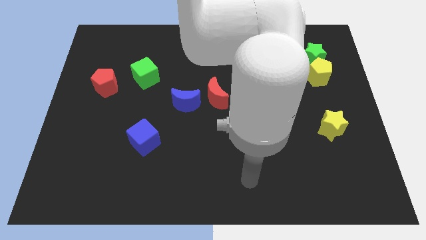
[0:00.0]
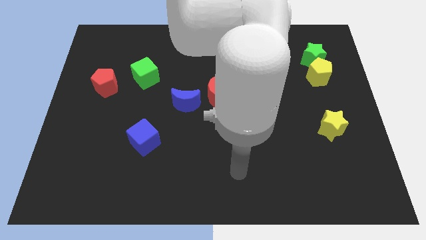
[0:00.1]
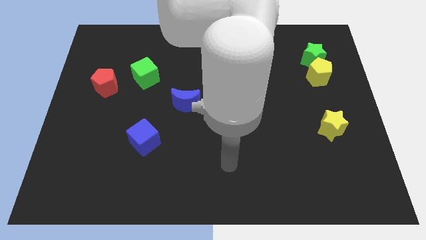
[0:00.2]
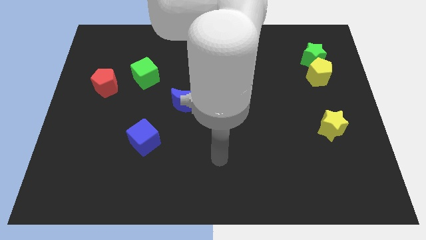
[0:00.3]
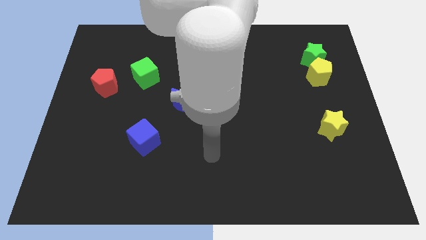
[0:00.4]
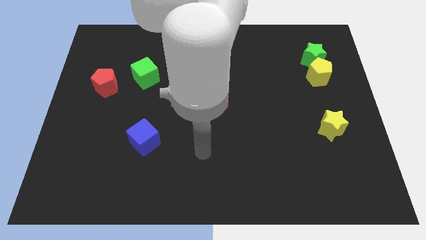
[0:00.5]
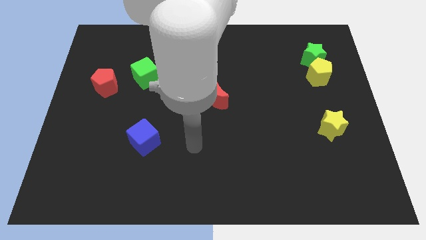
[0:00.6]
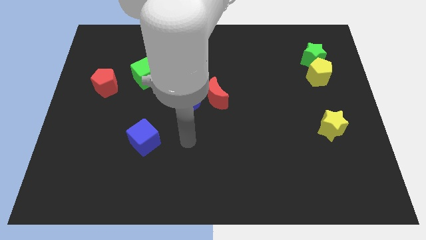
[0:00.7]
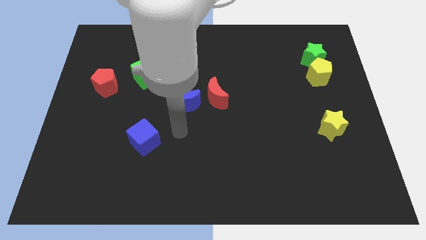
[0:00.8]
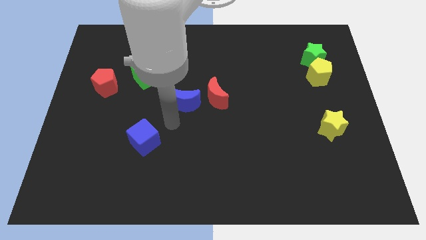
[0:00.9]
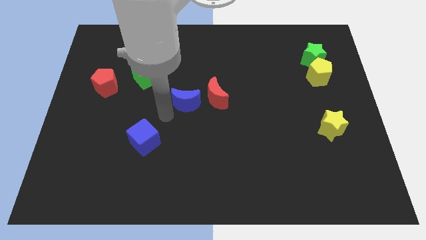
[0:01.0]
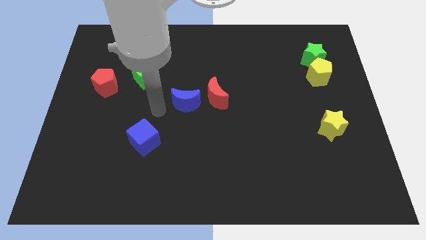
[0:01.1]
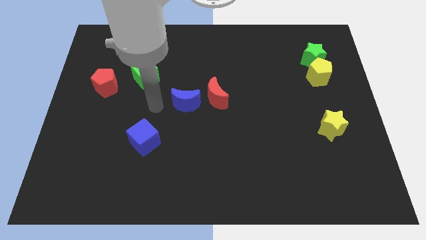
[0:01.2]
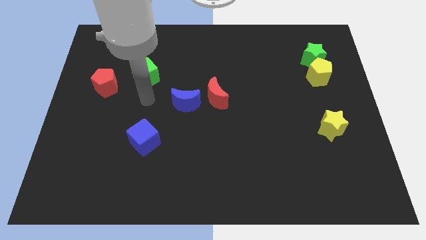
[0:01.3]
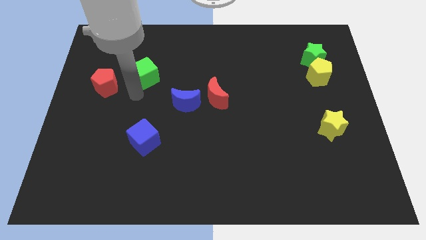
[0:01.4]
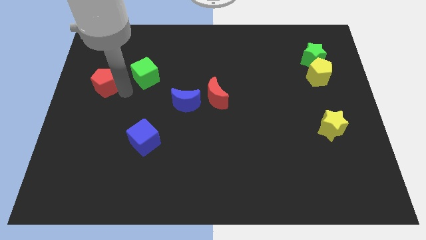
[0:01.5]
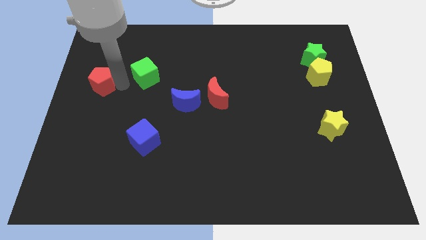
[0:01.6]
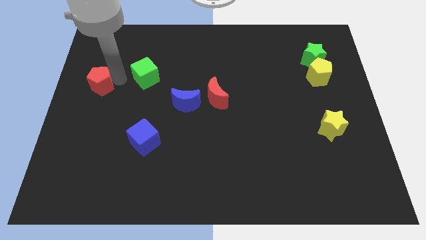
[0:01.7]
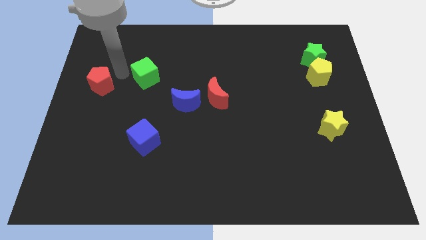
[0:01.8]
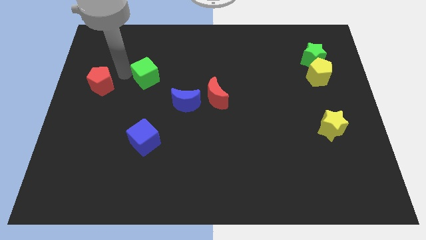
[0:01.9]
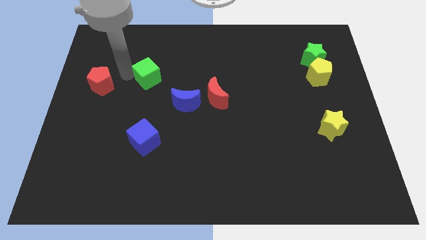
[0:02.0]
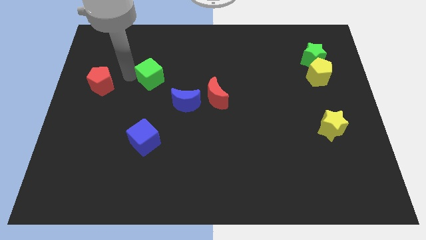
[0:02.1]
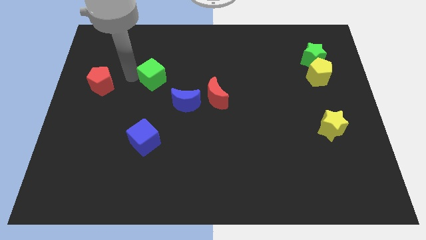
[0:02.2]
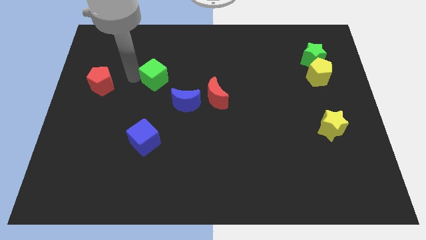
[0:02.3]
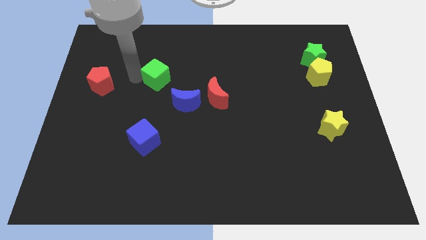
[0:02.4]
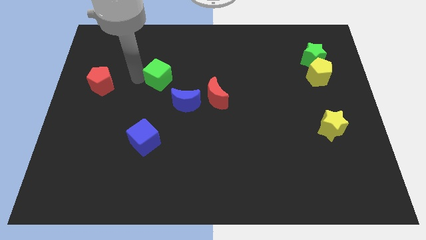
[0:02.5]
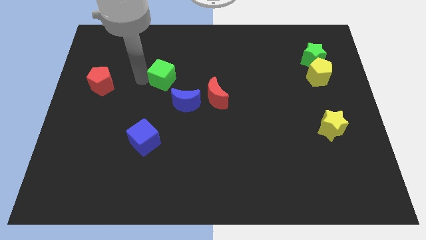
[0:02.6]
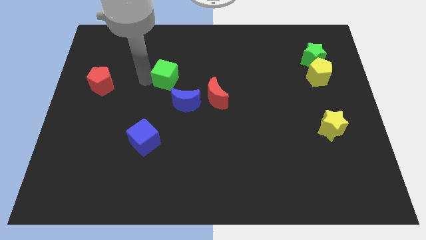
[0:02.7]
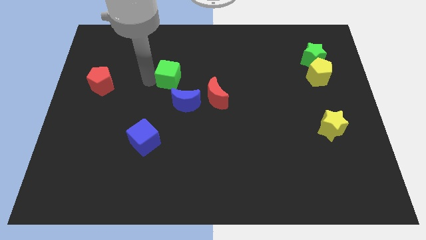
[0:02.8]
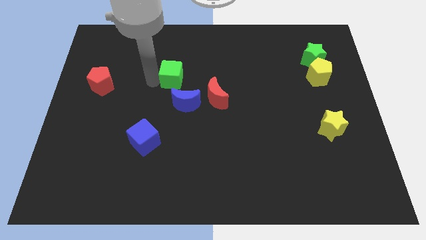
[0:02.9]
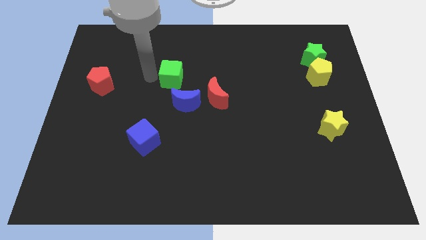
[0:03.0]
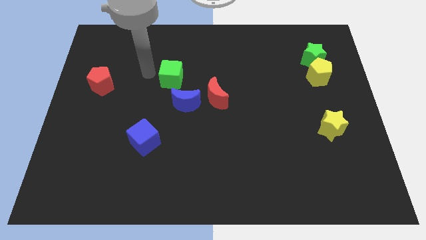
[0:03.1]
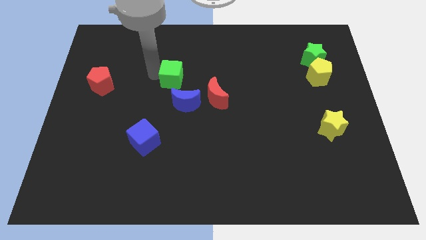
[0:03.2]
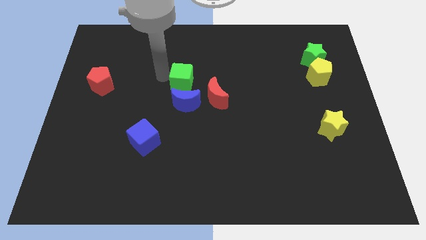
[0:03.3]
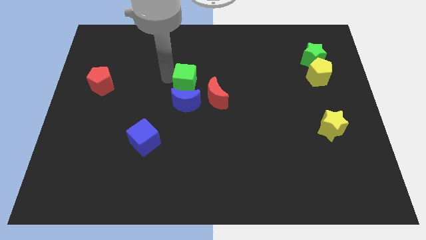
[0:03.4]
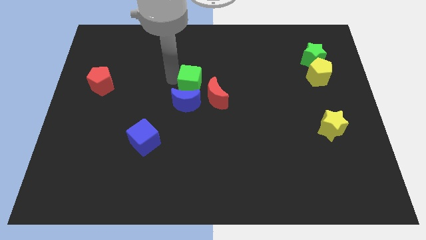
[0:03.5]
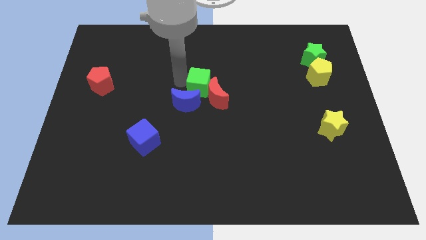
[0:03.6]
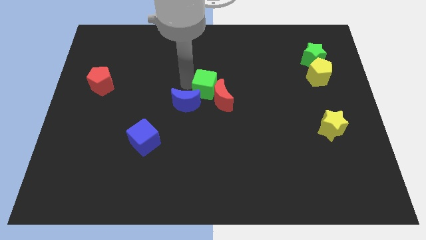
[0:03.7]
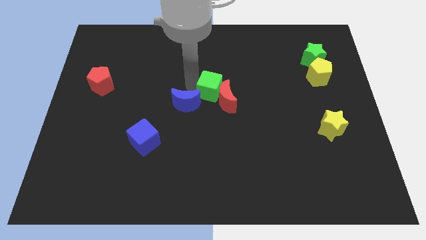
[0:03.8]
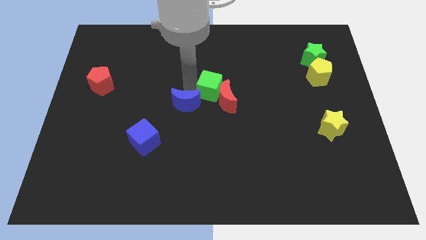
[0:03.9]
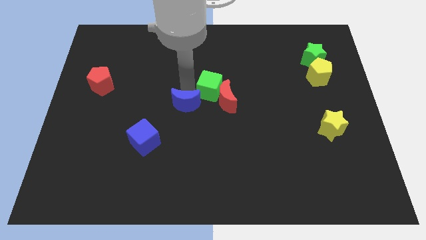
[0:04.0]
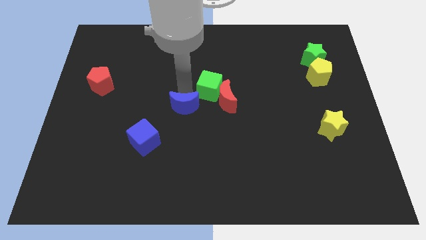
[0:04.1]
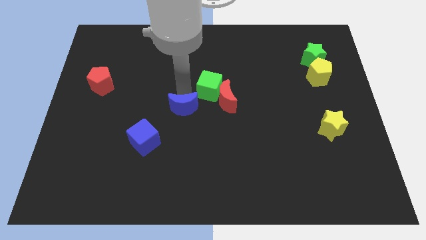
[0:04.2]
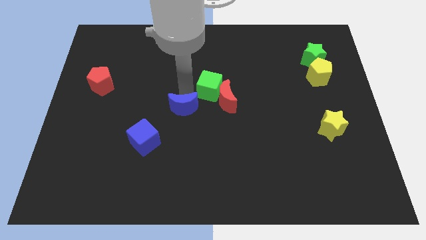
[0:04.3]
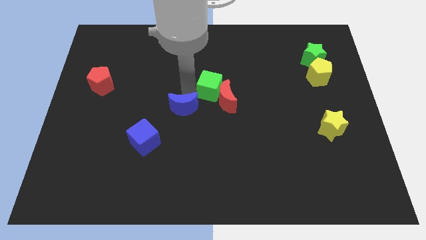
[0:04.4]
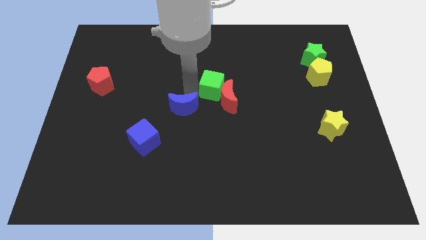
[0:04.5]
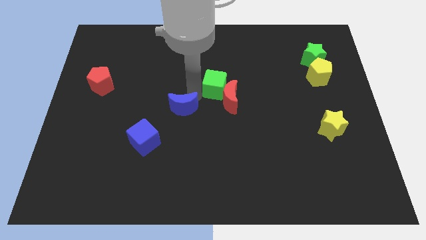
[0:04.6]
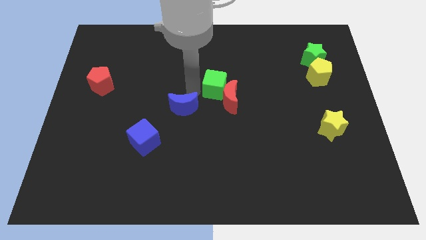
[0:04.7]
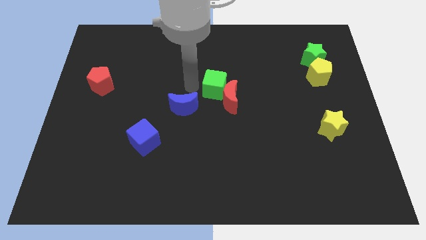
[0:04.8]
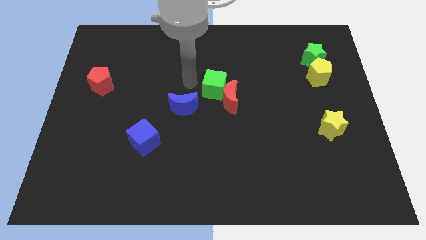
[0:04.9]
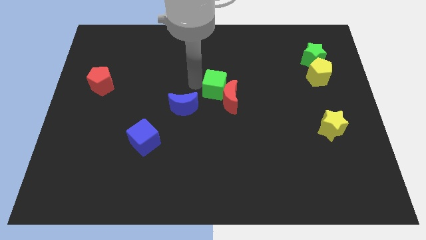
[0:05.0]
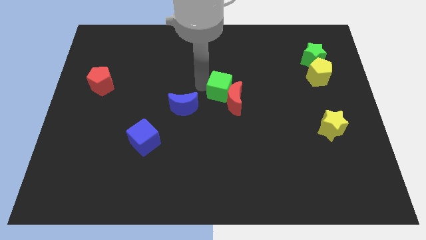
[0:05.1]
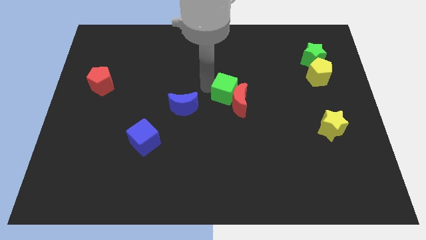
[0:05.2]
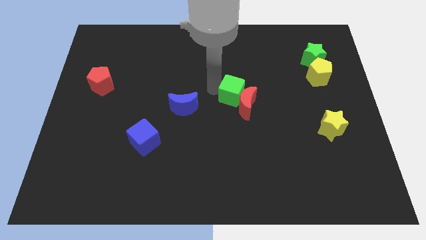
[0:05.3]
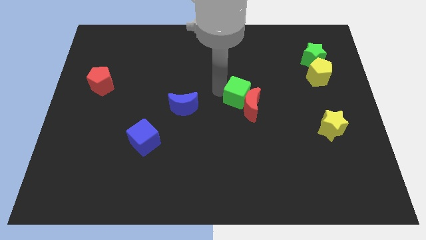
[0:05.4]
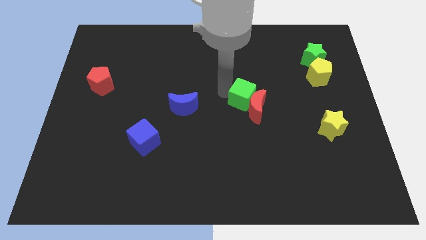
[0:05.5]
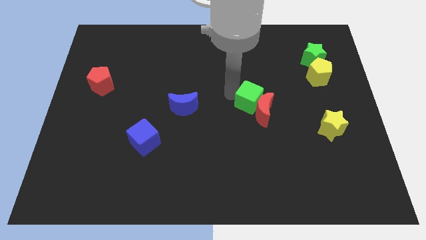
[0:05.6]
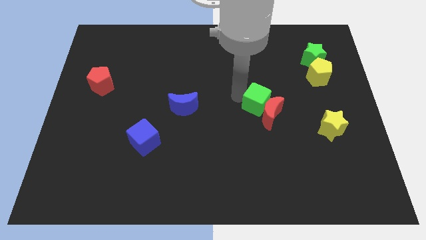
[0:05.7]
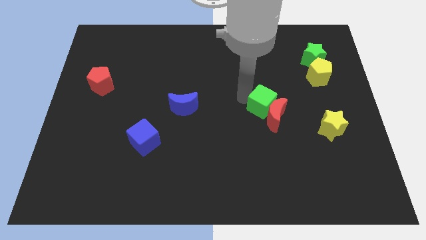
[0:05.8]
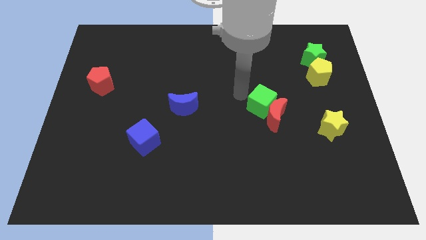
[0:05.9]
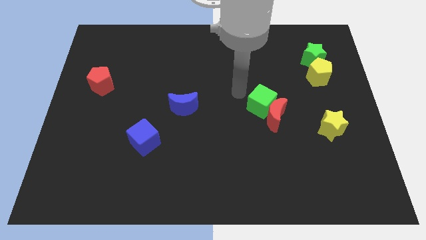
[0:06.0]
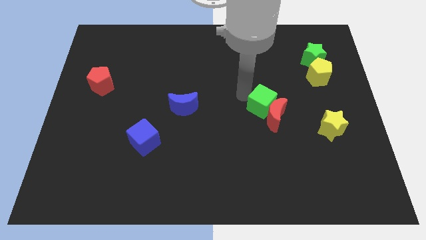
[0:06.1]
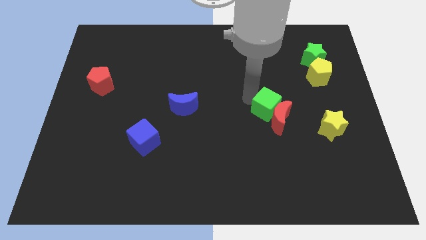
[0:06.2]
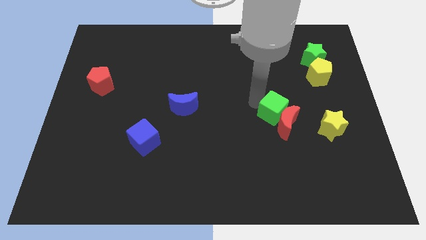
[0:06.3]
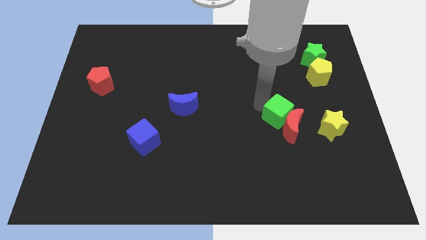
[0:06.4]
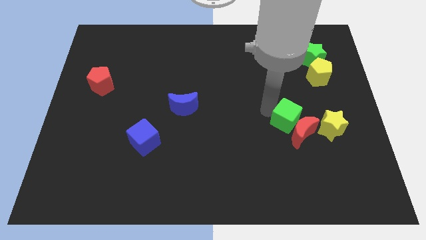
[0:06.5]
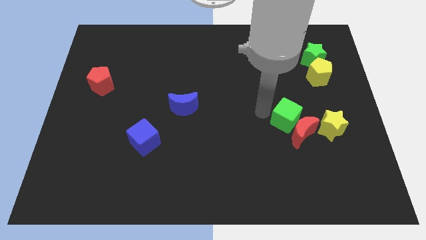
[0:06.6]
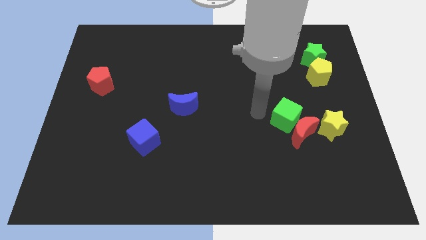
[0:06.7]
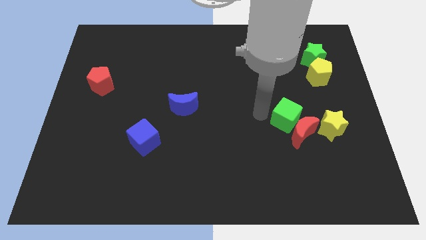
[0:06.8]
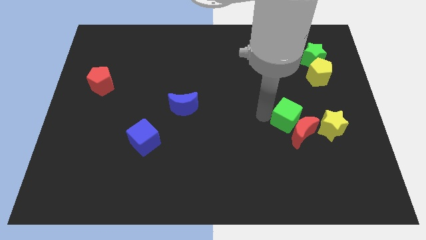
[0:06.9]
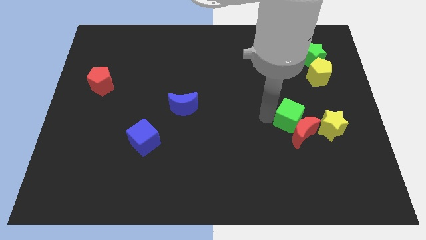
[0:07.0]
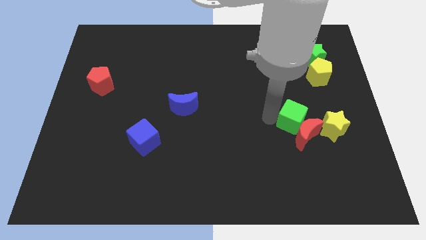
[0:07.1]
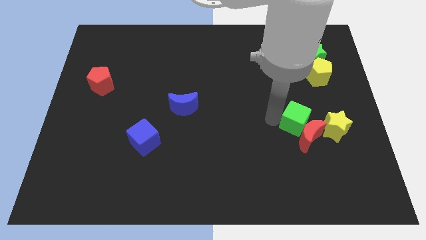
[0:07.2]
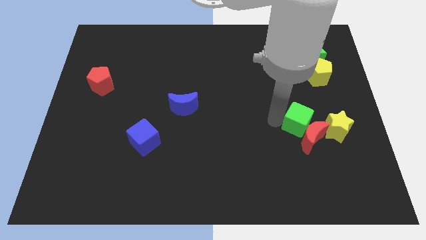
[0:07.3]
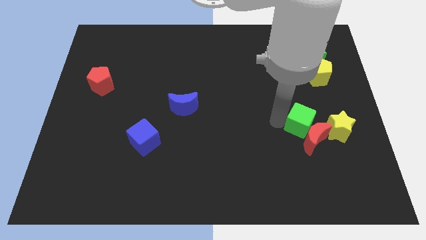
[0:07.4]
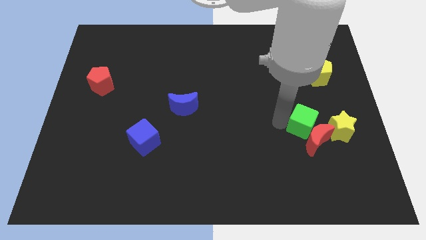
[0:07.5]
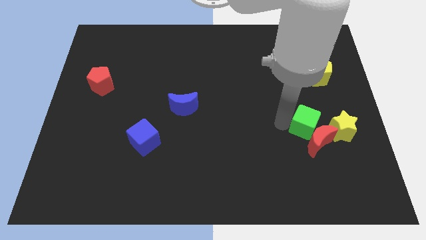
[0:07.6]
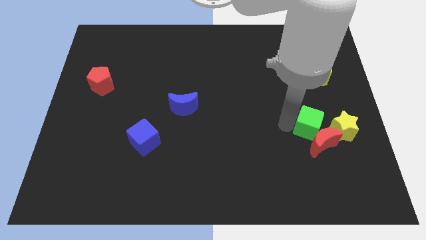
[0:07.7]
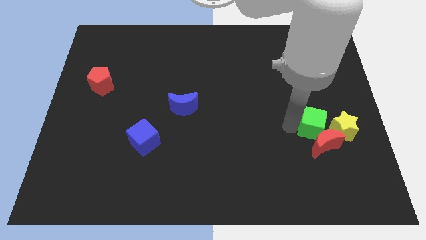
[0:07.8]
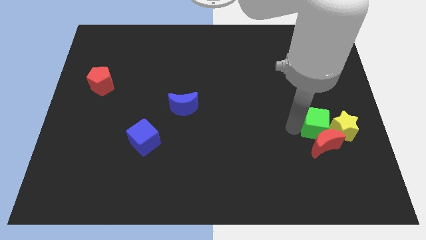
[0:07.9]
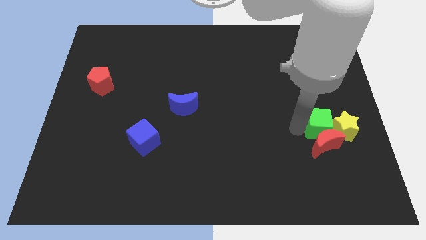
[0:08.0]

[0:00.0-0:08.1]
push the green cube towards the yellow star
